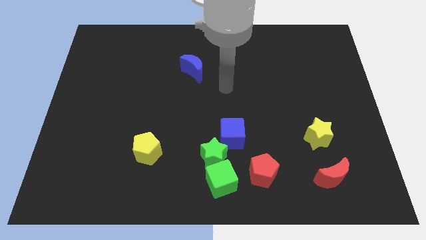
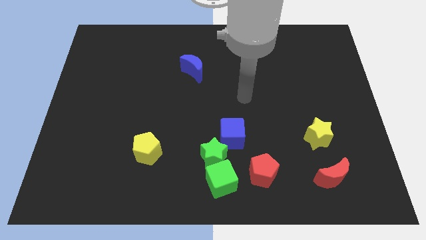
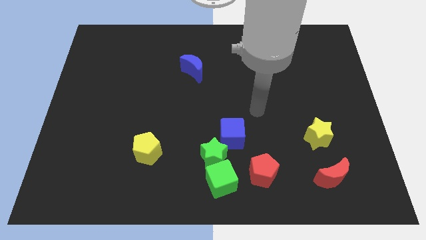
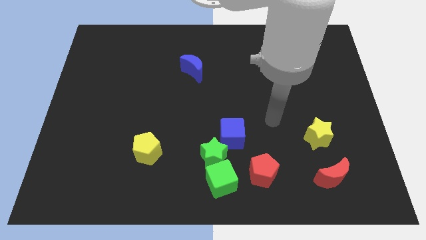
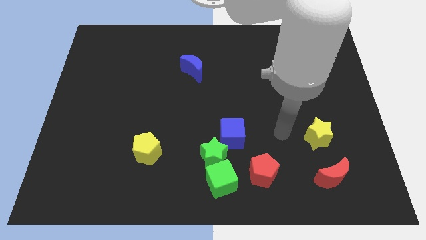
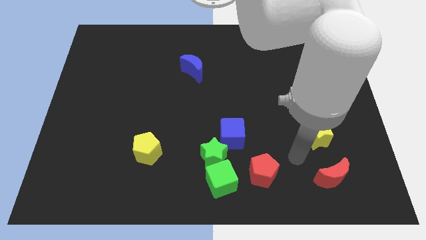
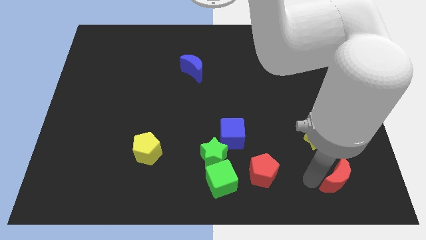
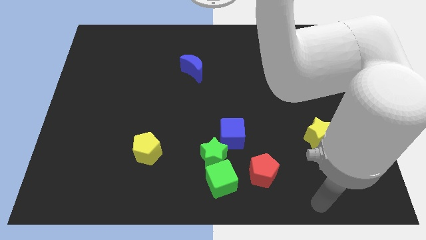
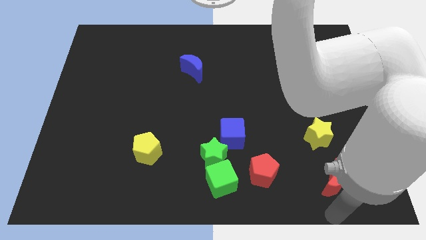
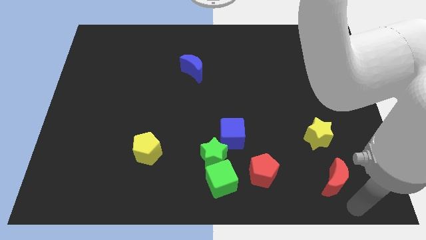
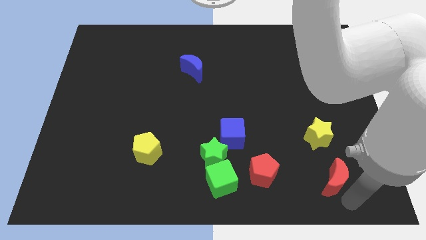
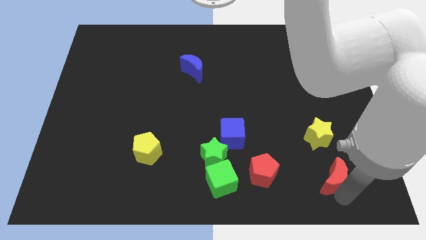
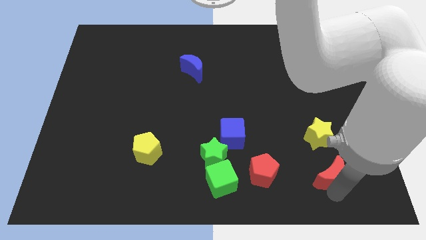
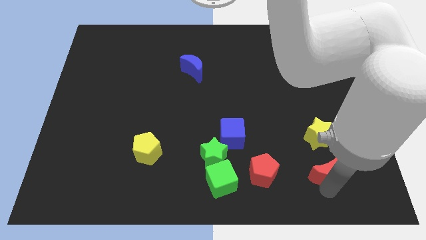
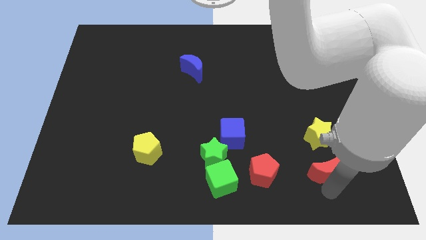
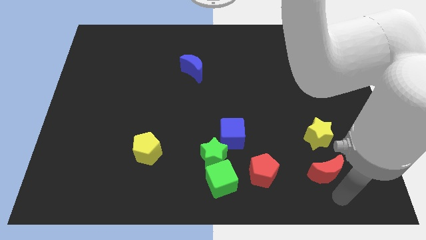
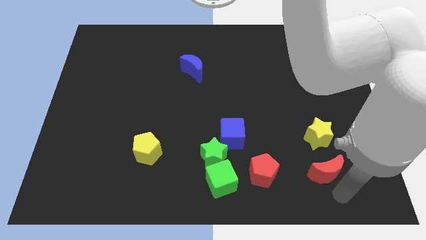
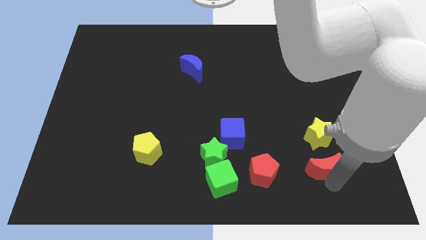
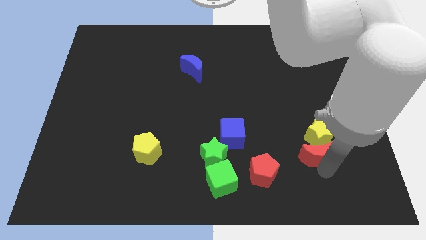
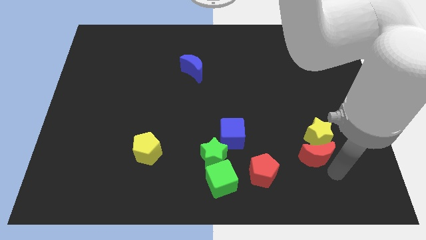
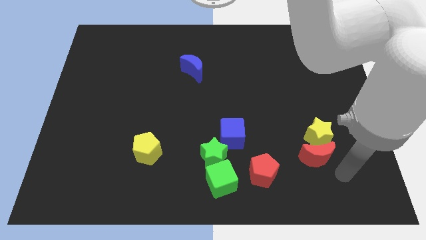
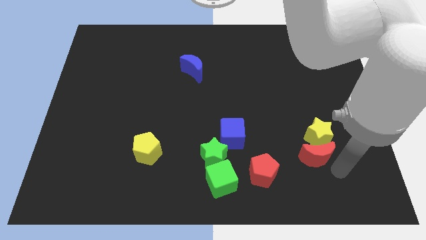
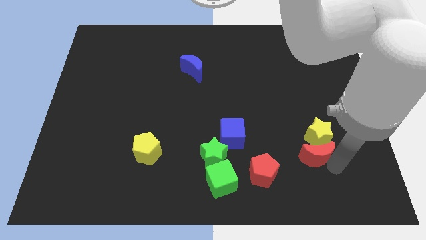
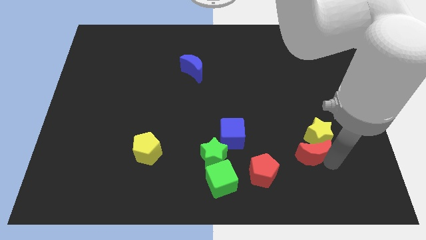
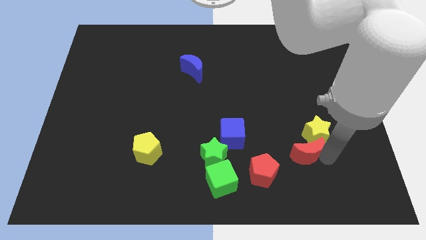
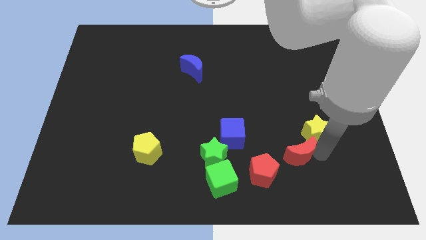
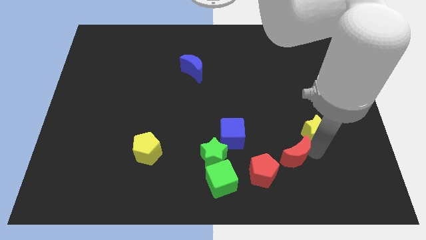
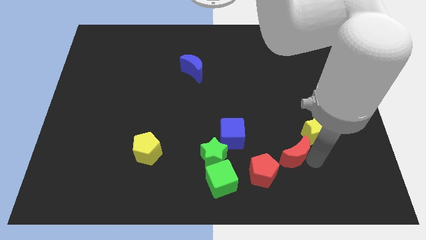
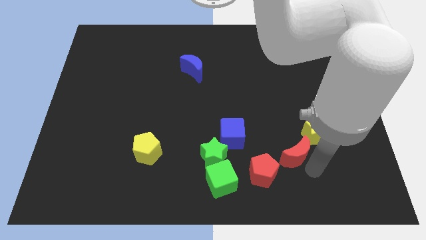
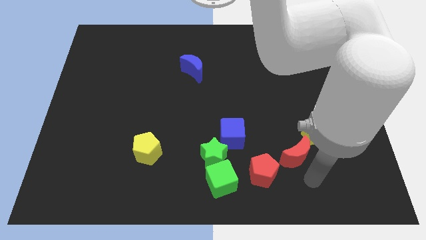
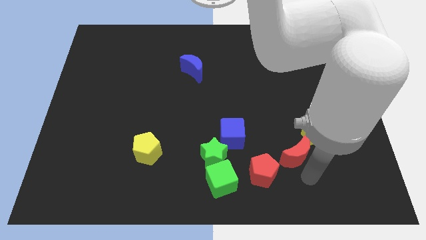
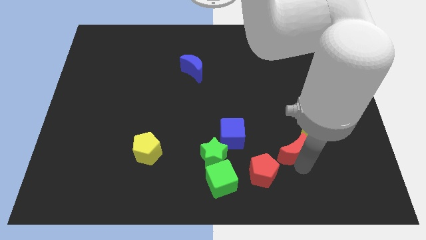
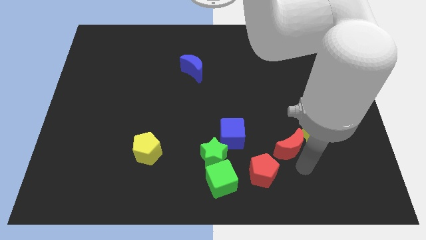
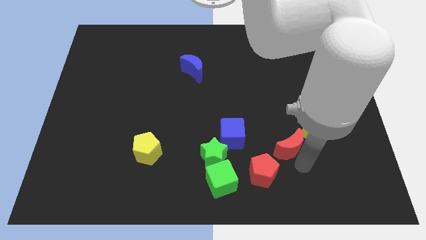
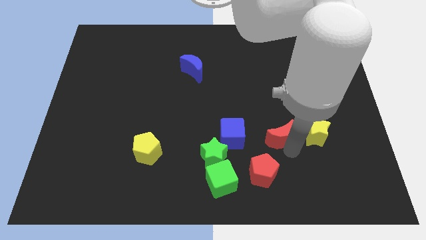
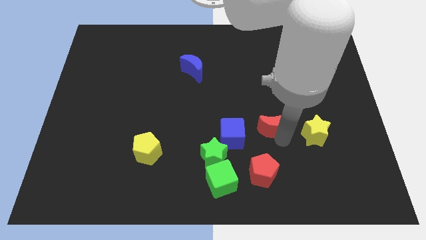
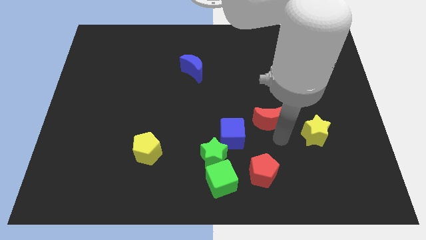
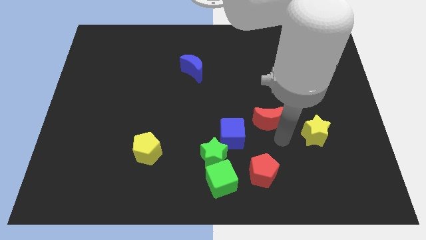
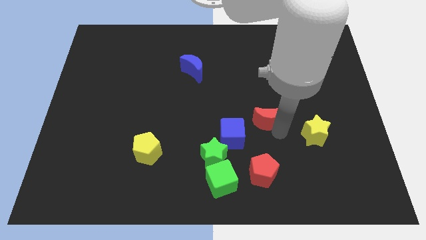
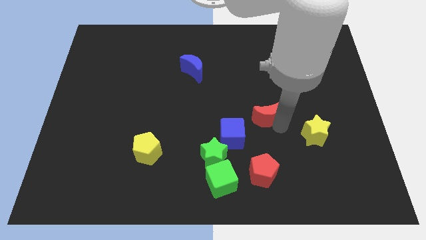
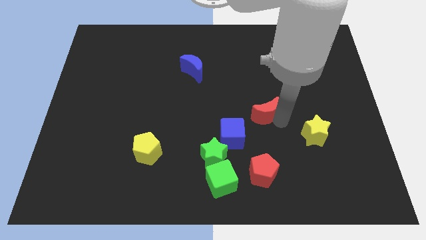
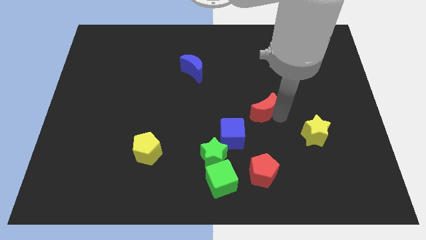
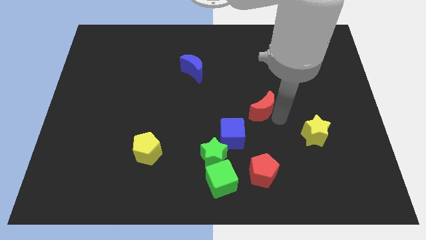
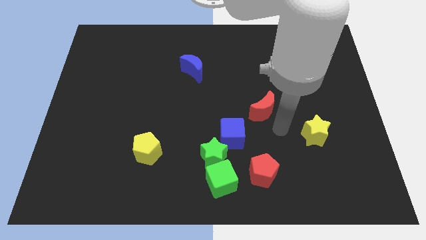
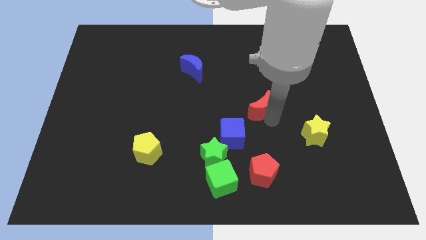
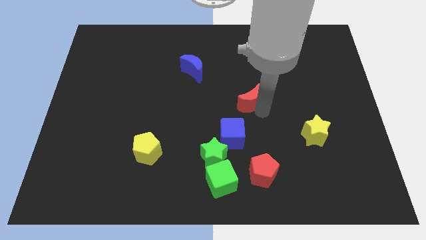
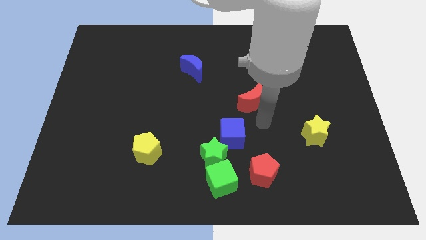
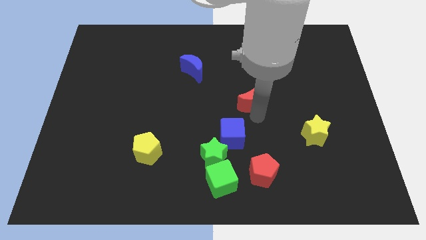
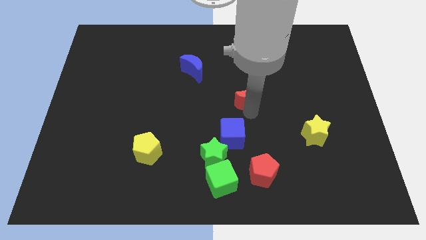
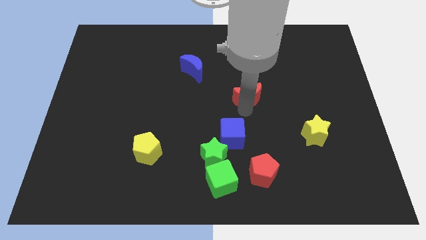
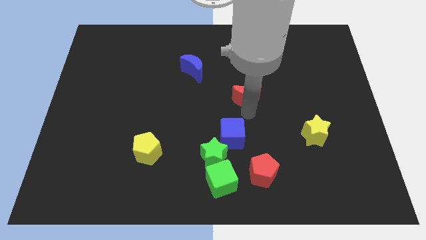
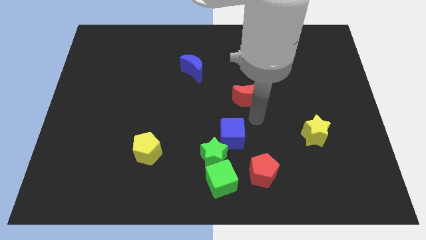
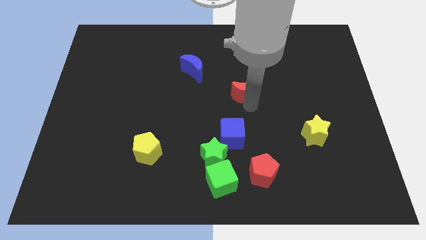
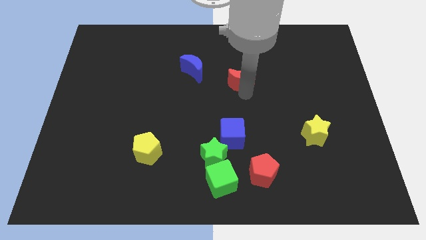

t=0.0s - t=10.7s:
move the red moon to the right of the blue moon

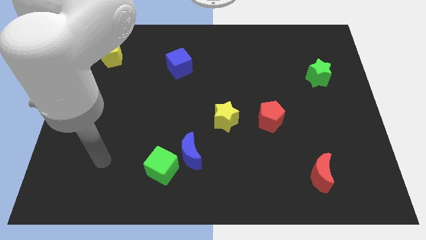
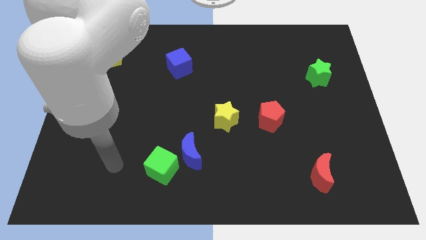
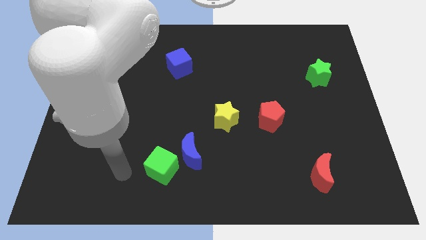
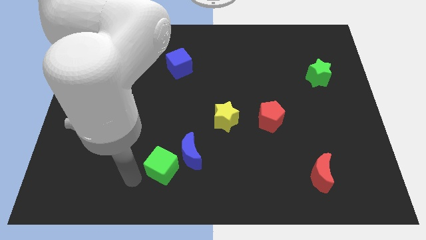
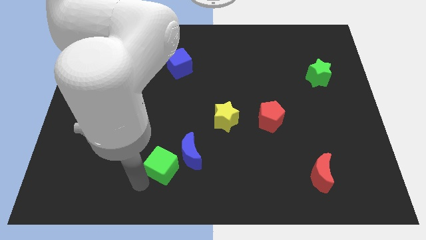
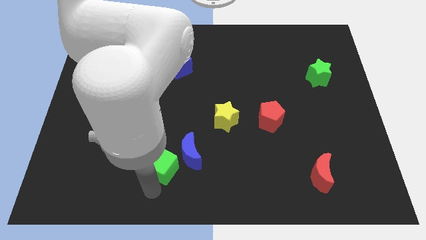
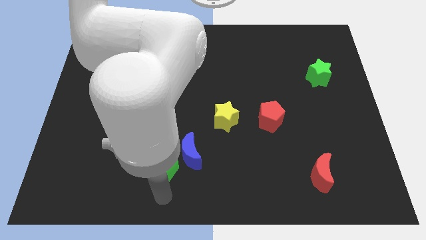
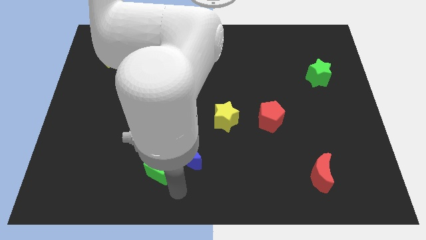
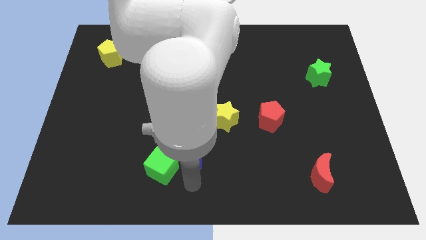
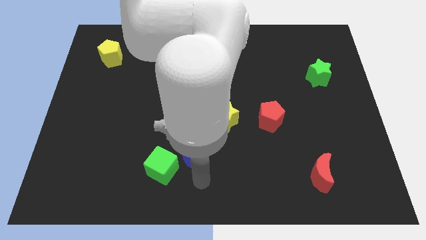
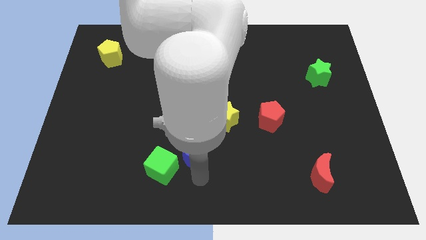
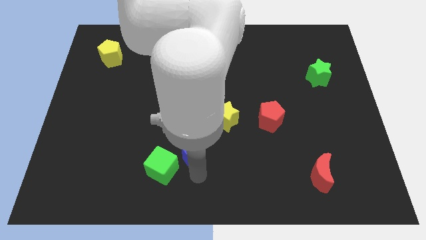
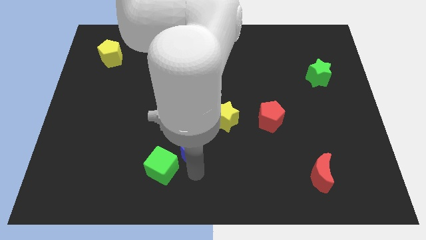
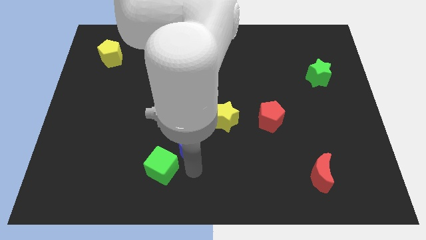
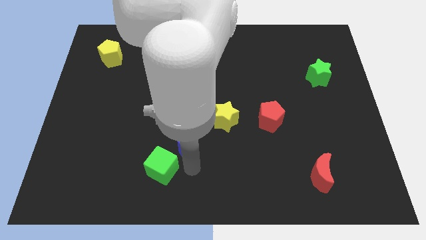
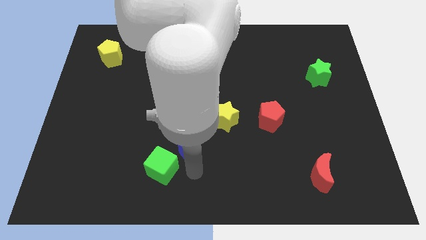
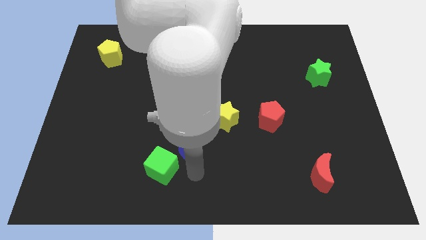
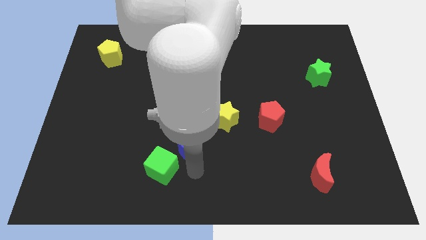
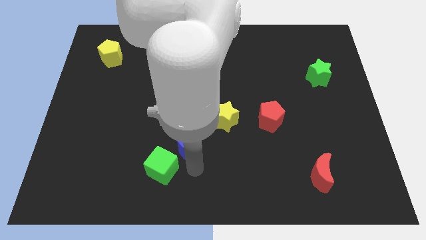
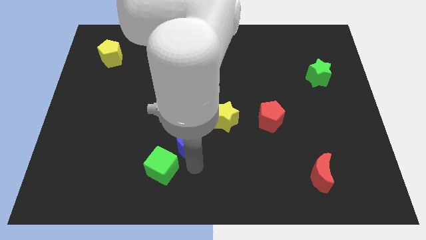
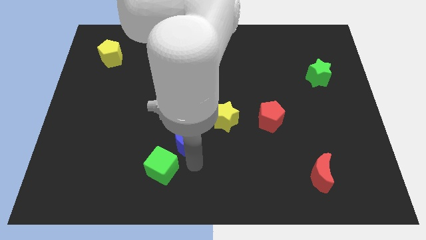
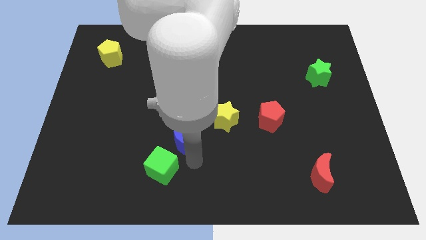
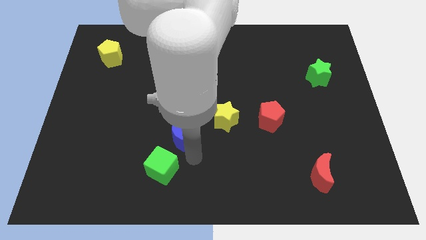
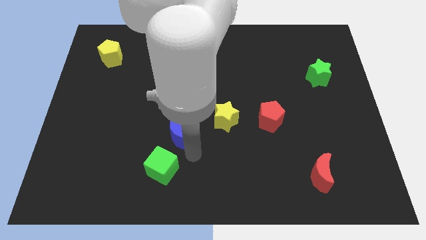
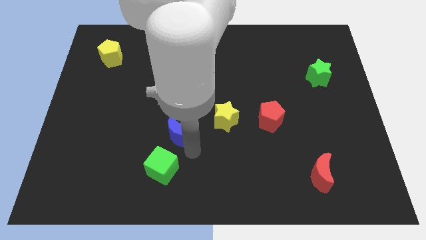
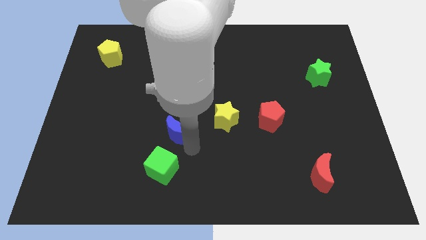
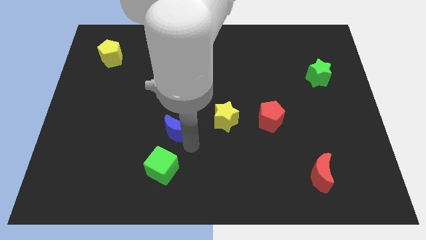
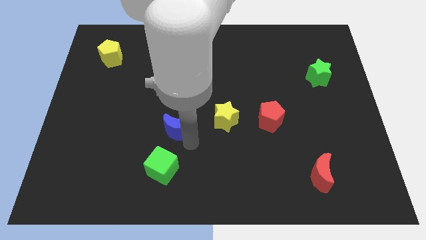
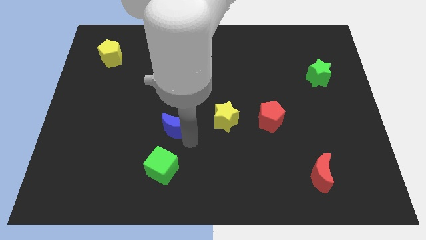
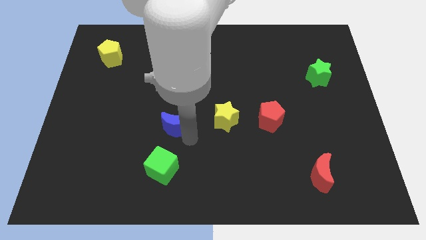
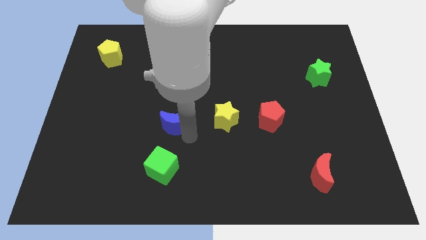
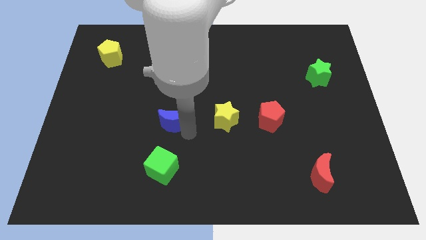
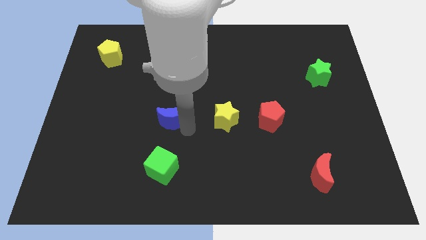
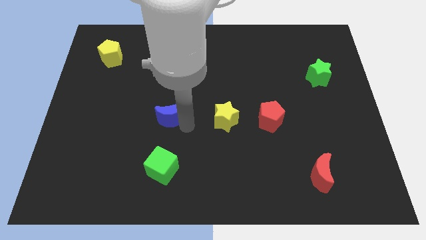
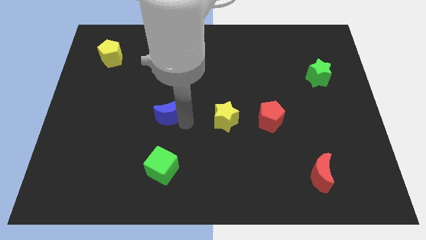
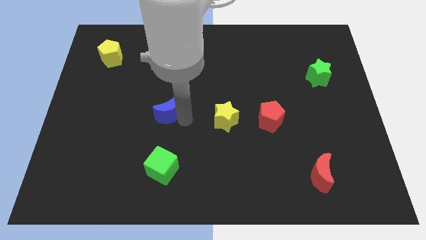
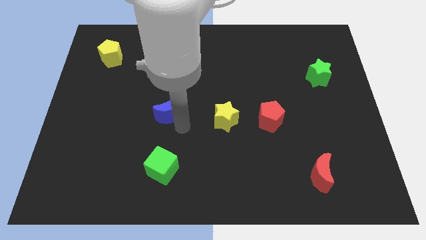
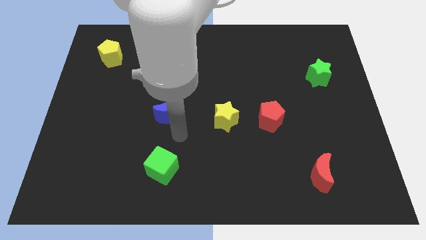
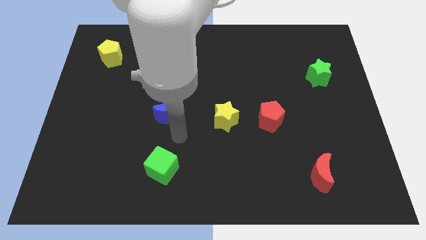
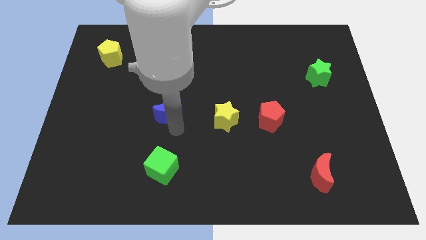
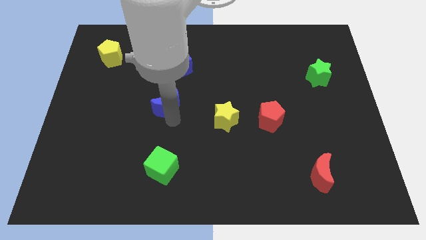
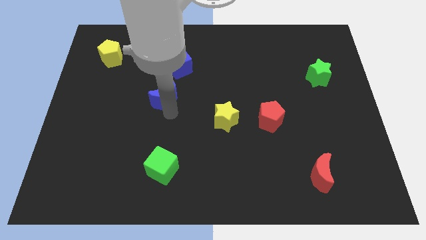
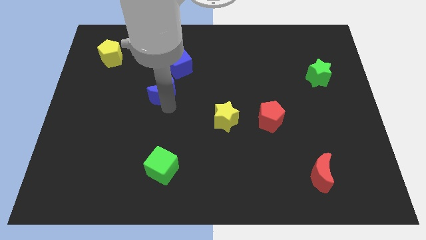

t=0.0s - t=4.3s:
move the blue moon to the bottom left of the blue cube
